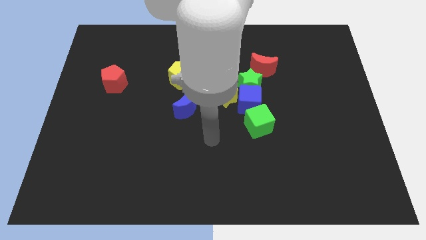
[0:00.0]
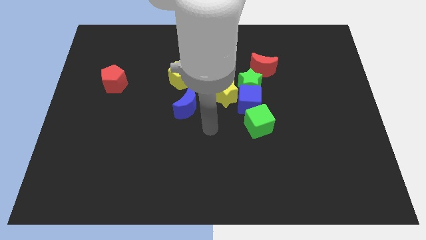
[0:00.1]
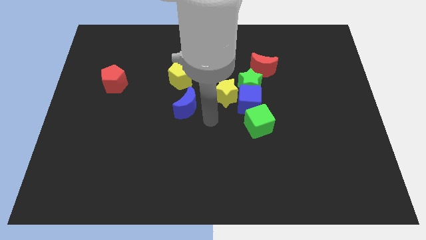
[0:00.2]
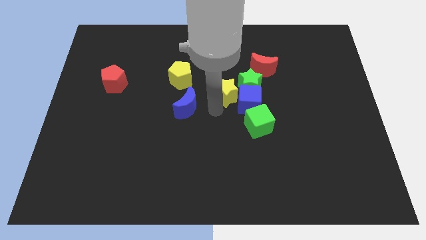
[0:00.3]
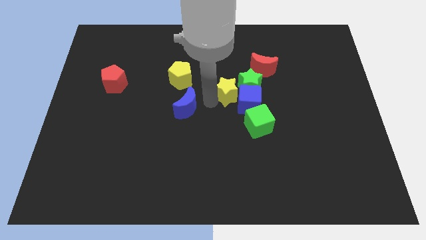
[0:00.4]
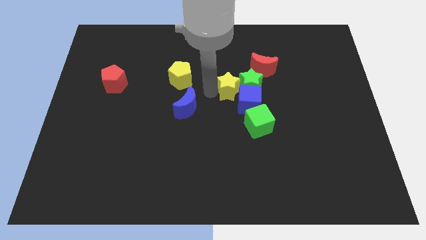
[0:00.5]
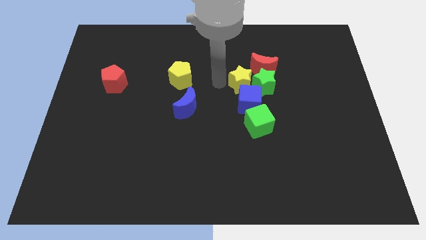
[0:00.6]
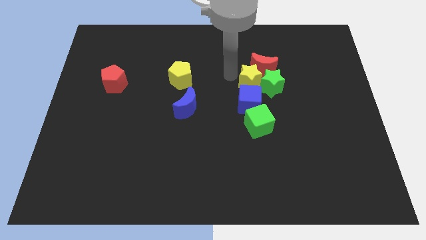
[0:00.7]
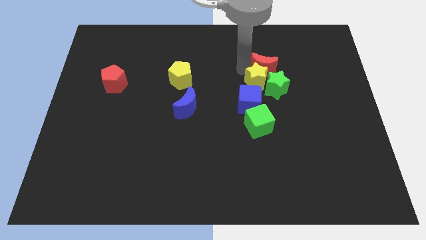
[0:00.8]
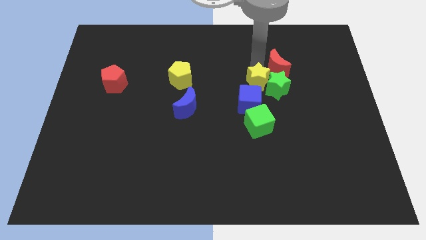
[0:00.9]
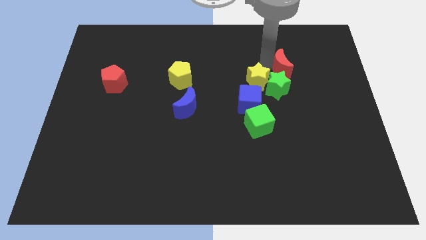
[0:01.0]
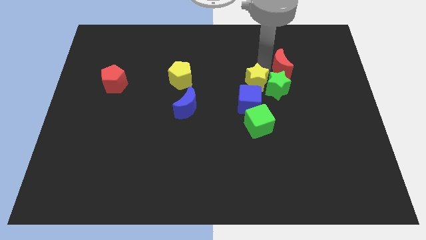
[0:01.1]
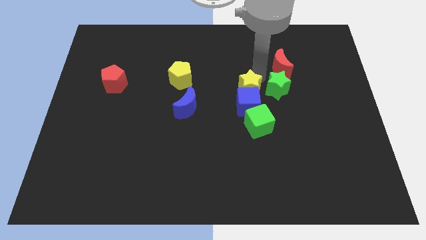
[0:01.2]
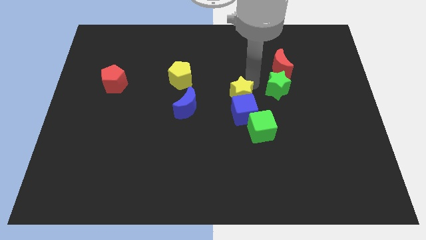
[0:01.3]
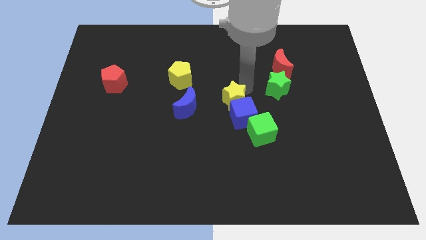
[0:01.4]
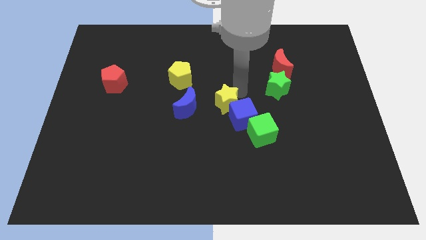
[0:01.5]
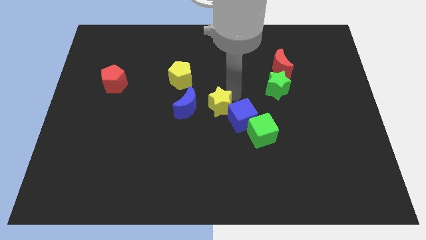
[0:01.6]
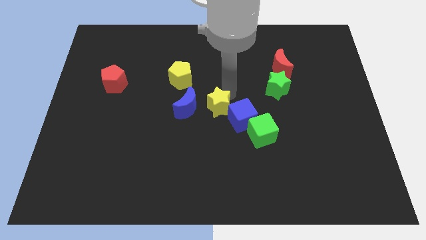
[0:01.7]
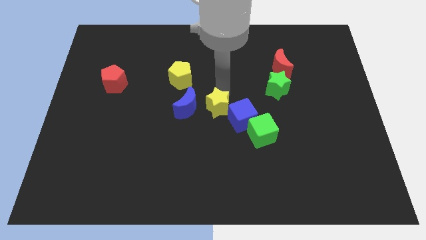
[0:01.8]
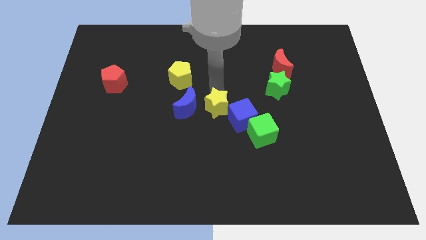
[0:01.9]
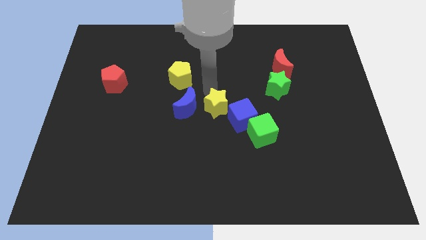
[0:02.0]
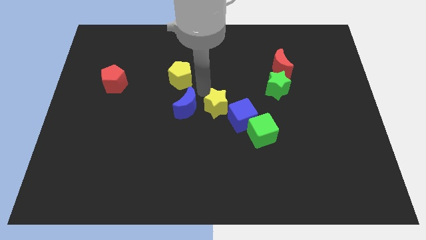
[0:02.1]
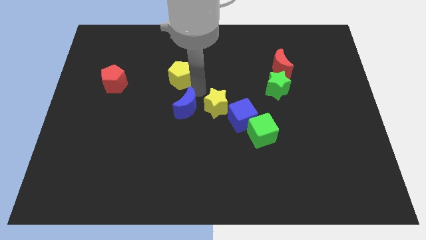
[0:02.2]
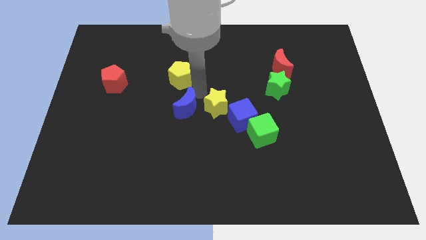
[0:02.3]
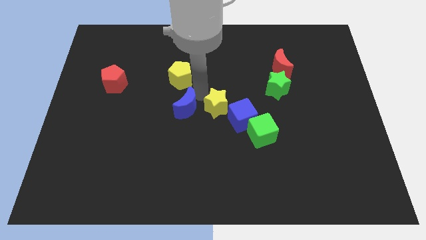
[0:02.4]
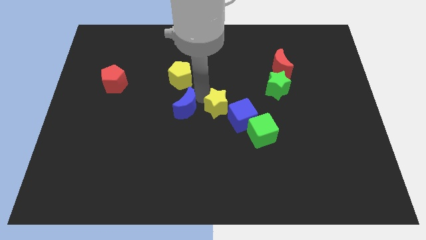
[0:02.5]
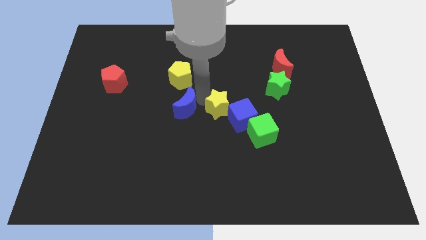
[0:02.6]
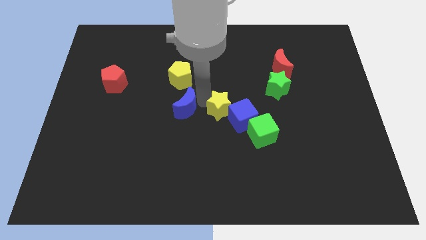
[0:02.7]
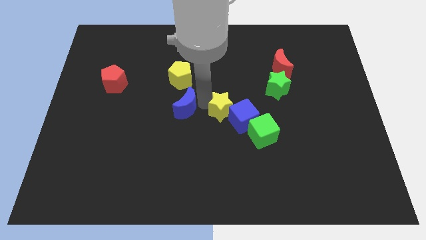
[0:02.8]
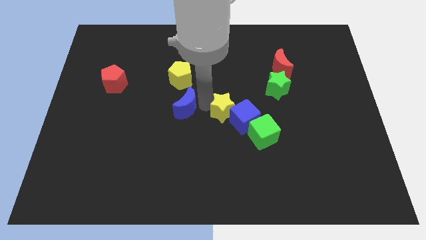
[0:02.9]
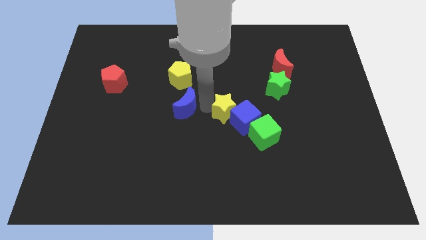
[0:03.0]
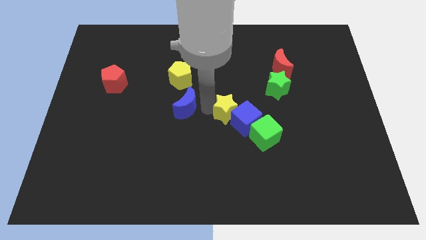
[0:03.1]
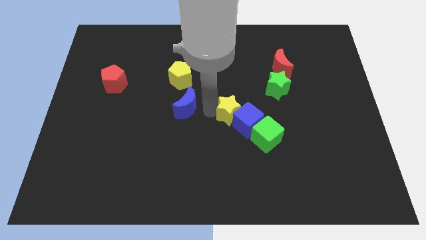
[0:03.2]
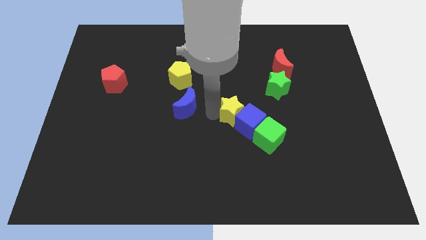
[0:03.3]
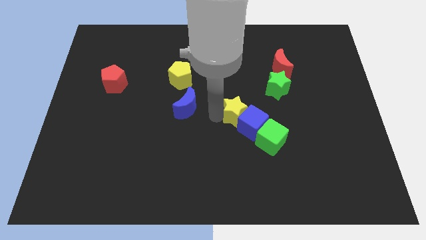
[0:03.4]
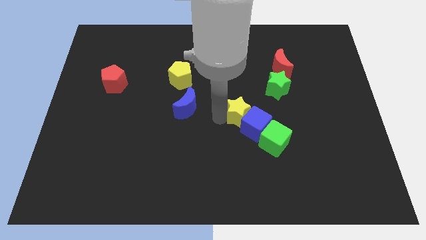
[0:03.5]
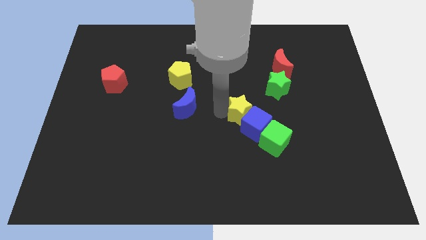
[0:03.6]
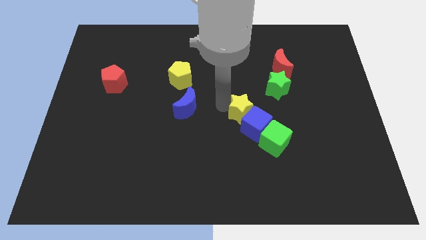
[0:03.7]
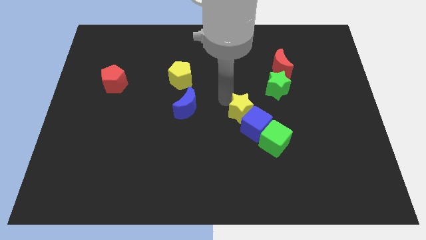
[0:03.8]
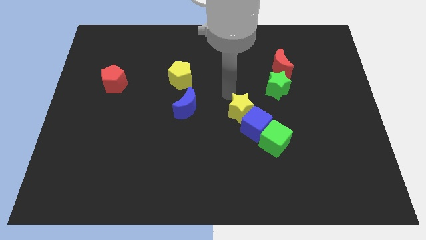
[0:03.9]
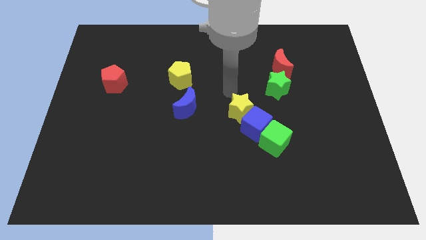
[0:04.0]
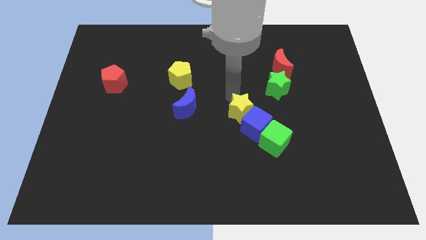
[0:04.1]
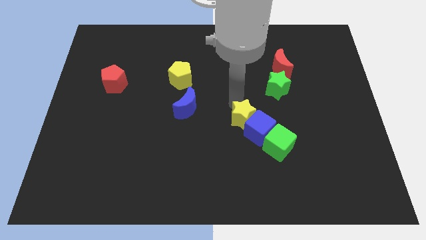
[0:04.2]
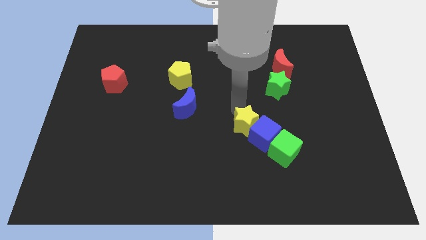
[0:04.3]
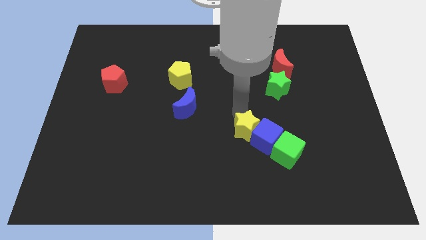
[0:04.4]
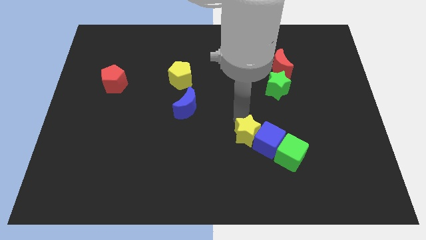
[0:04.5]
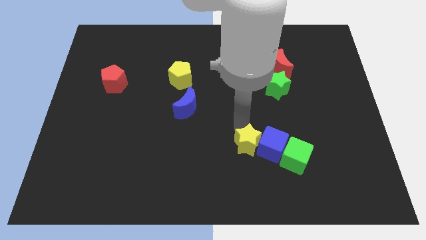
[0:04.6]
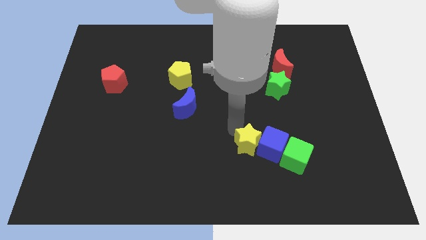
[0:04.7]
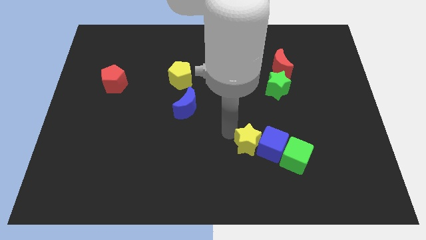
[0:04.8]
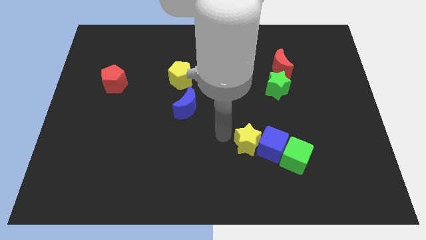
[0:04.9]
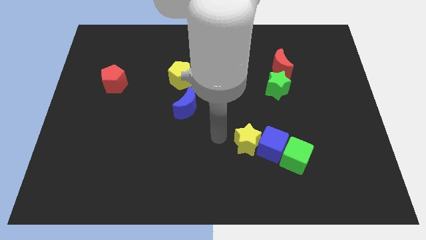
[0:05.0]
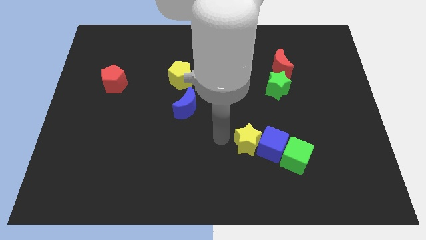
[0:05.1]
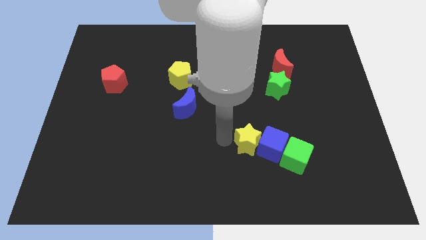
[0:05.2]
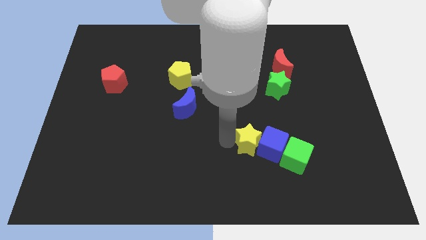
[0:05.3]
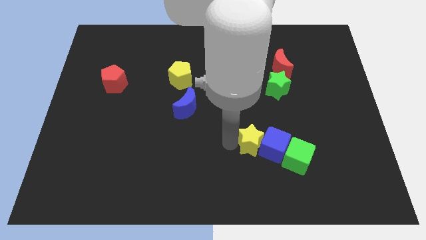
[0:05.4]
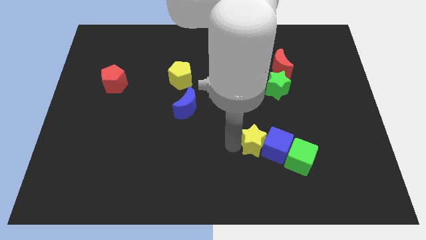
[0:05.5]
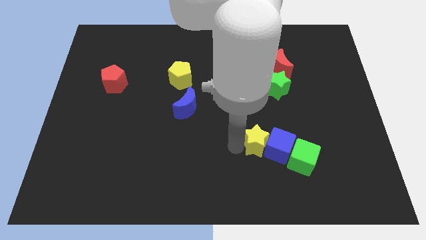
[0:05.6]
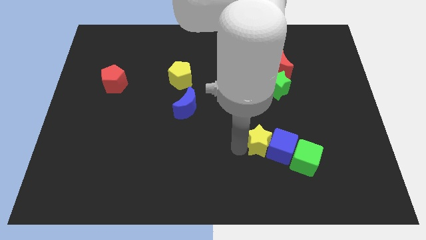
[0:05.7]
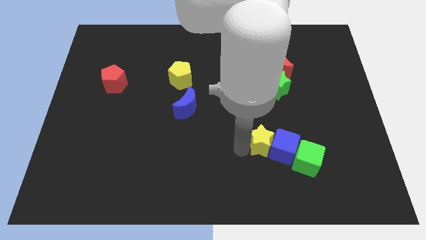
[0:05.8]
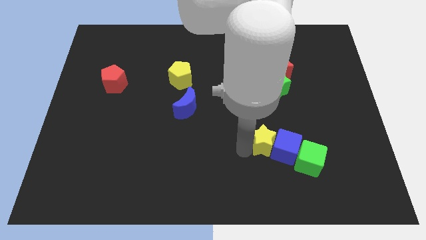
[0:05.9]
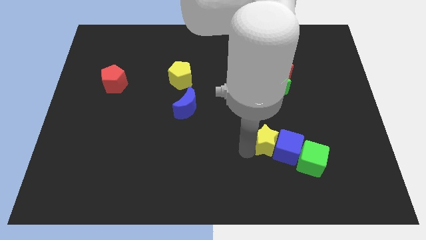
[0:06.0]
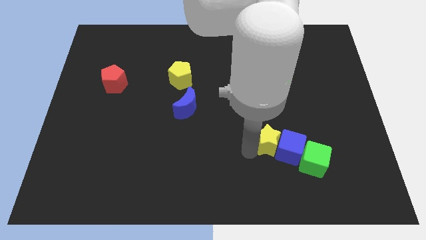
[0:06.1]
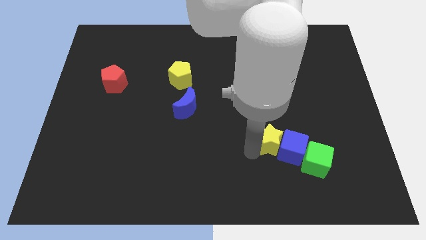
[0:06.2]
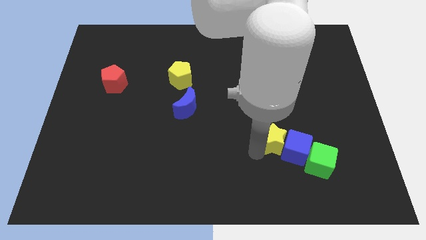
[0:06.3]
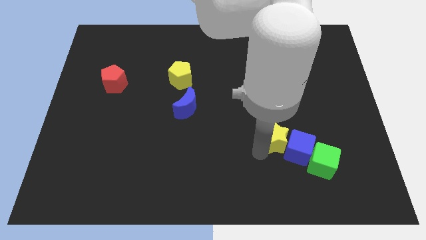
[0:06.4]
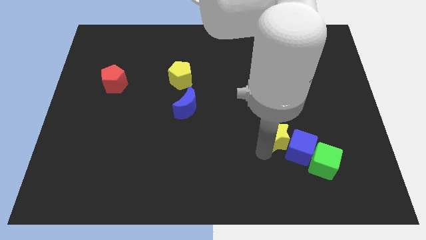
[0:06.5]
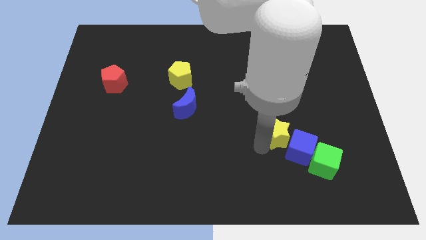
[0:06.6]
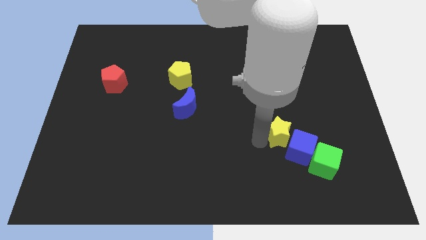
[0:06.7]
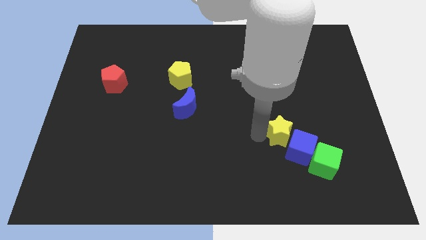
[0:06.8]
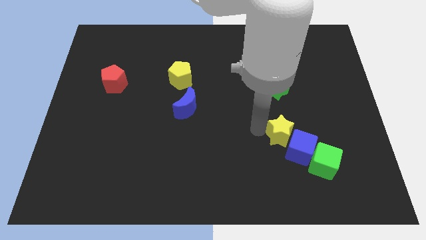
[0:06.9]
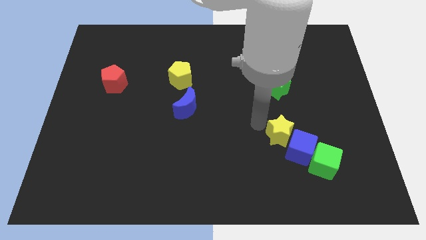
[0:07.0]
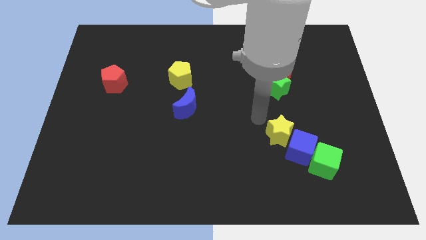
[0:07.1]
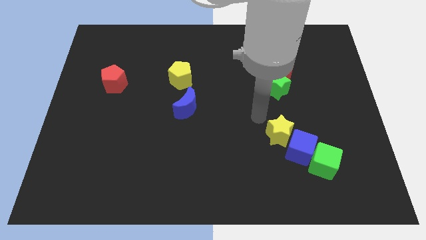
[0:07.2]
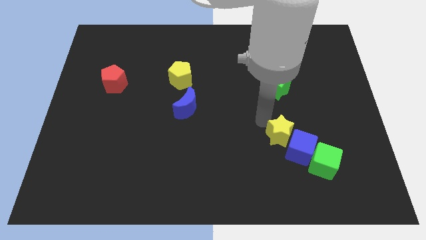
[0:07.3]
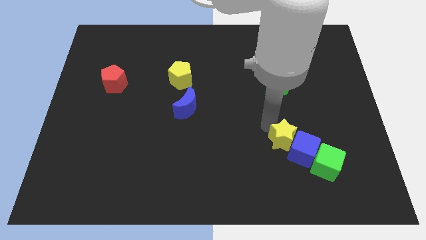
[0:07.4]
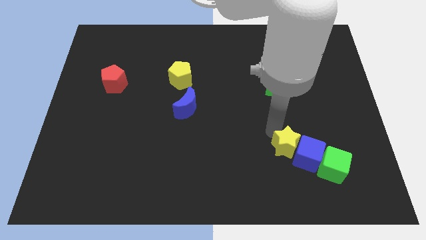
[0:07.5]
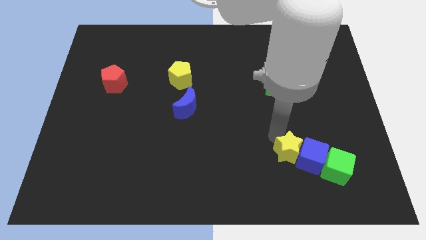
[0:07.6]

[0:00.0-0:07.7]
push the yellow star downwards and right

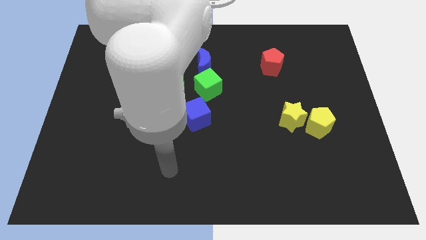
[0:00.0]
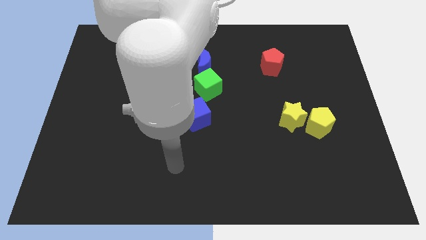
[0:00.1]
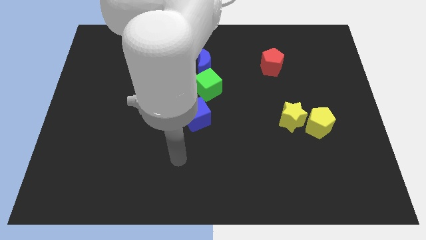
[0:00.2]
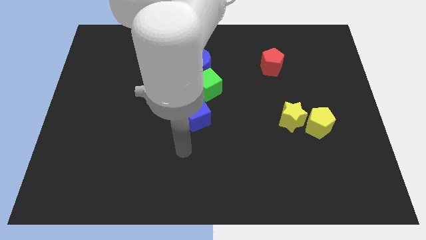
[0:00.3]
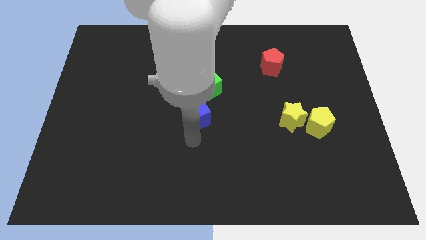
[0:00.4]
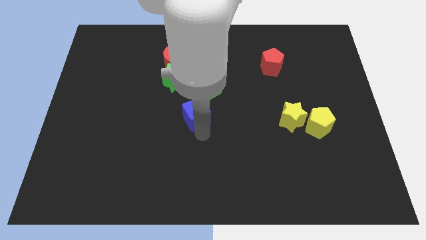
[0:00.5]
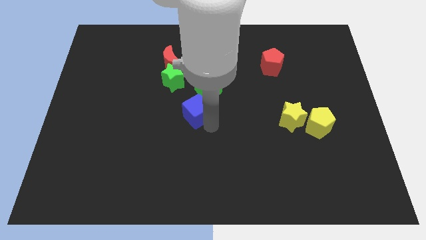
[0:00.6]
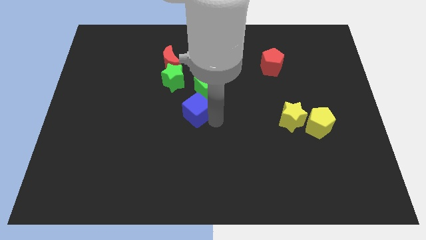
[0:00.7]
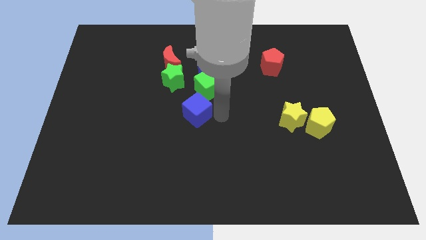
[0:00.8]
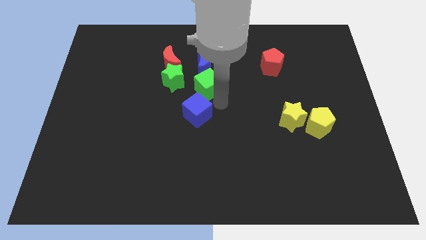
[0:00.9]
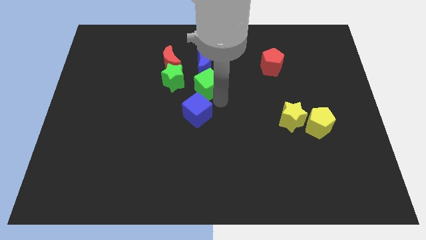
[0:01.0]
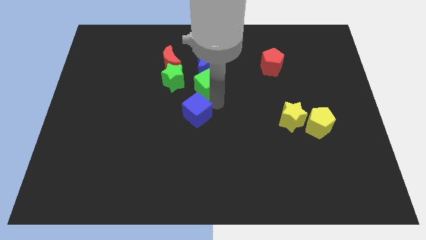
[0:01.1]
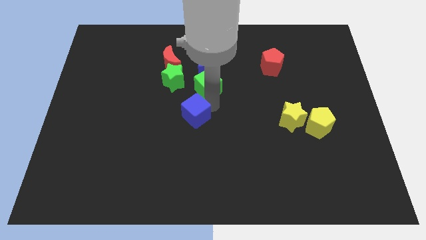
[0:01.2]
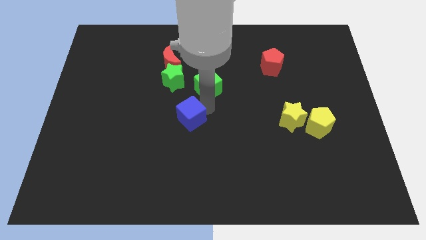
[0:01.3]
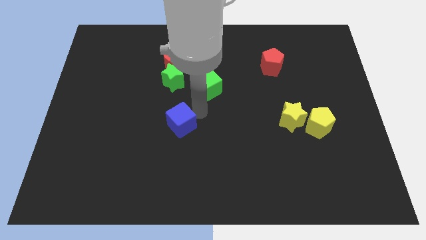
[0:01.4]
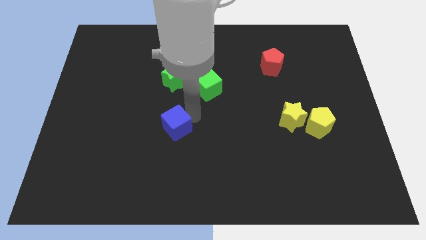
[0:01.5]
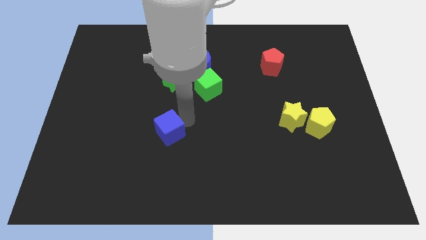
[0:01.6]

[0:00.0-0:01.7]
push the blue cube somewhat downwards and left diagonally
